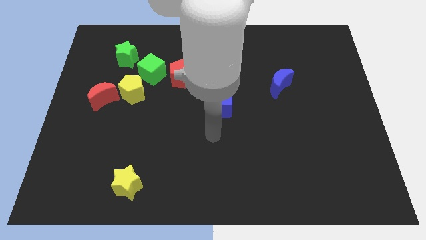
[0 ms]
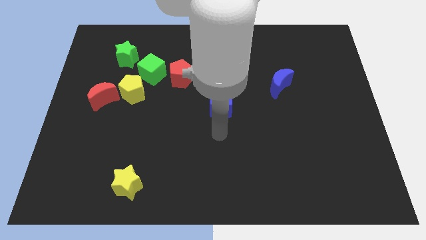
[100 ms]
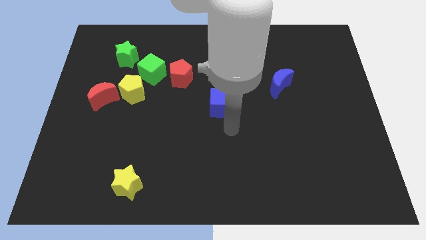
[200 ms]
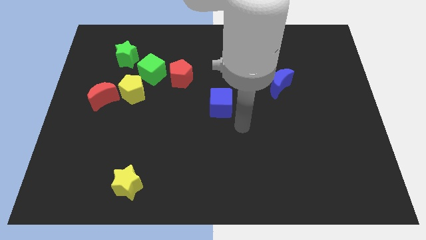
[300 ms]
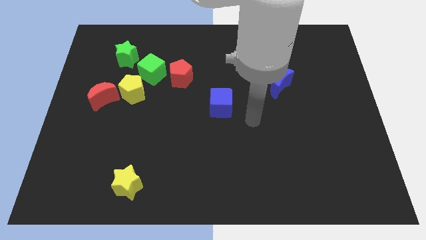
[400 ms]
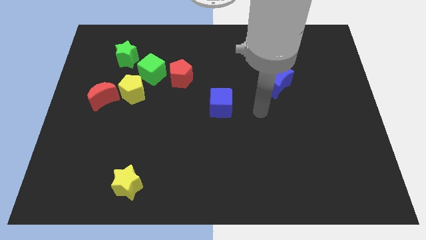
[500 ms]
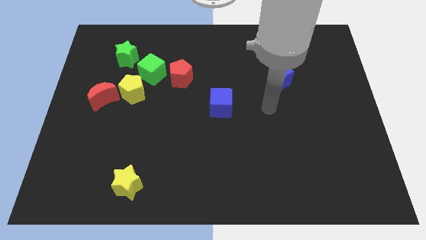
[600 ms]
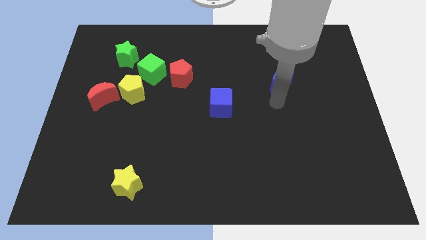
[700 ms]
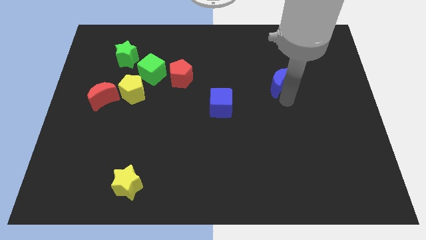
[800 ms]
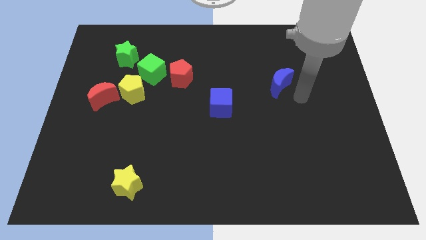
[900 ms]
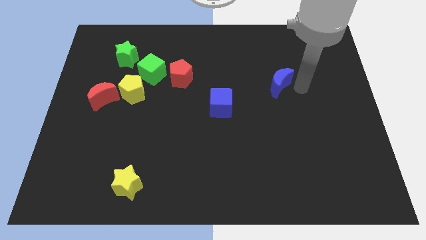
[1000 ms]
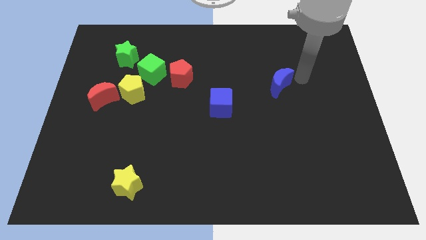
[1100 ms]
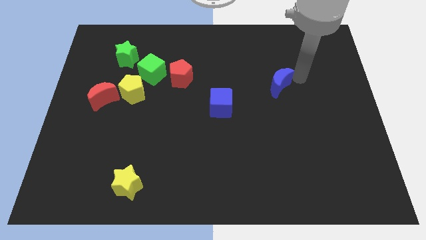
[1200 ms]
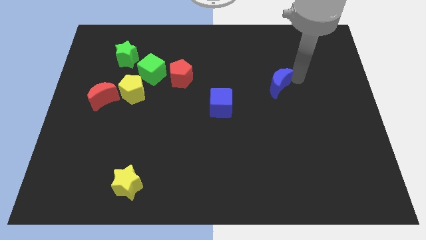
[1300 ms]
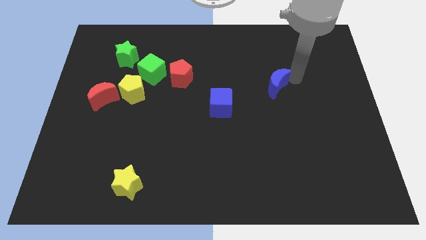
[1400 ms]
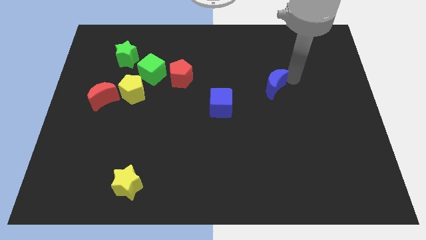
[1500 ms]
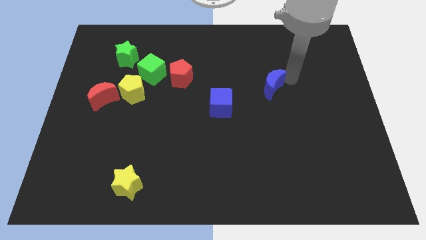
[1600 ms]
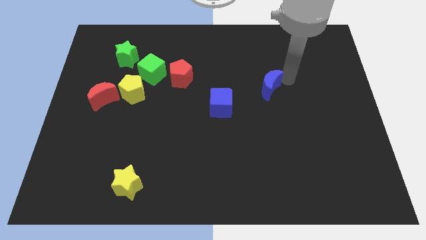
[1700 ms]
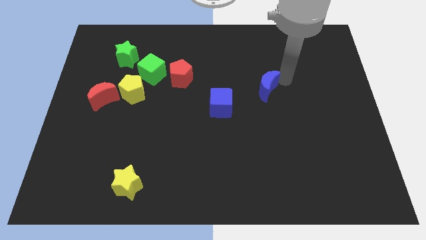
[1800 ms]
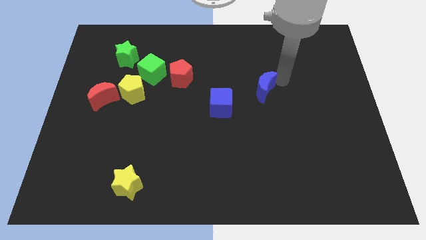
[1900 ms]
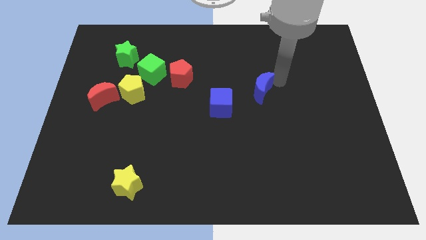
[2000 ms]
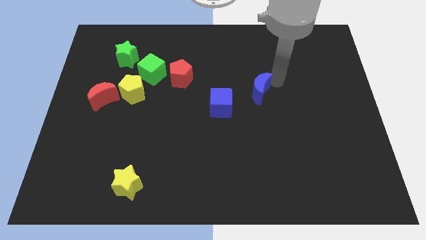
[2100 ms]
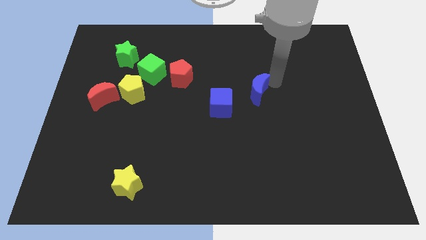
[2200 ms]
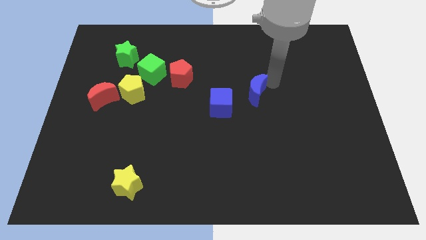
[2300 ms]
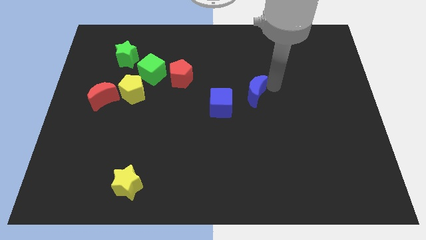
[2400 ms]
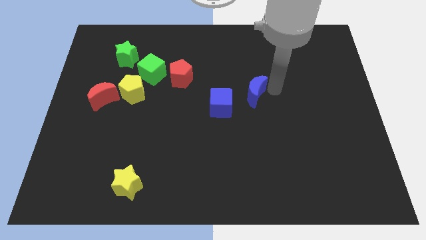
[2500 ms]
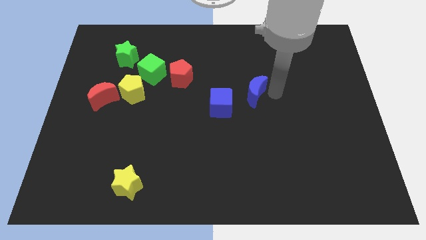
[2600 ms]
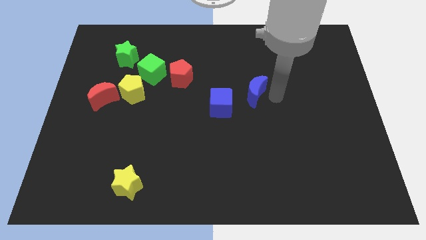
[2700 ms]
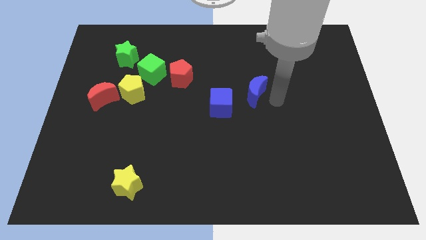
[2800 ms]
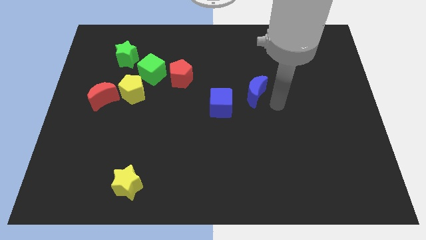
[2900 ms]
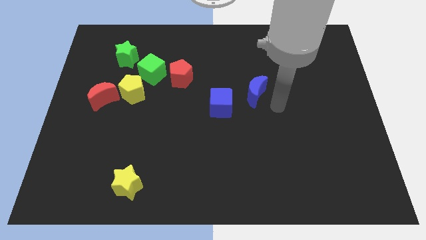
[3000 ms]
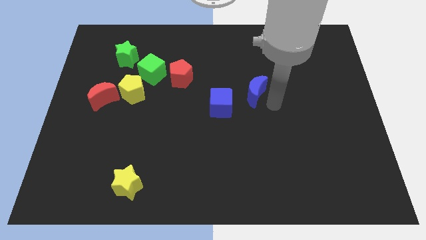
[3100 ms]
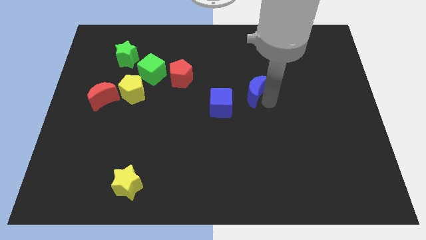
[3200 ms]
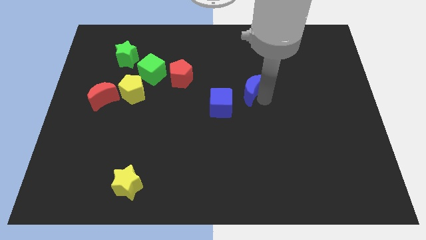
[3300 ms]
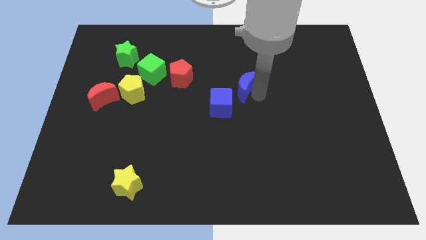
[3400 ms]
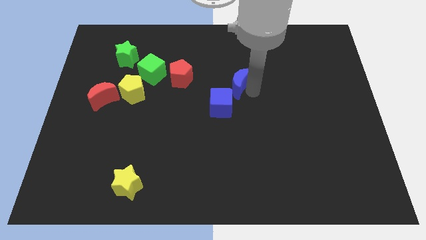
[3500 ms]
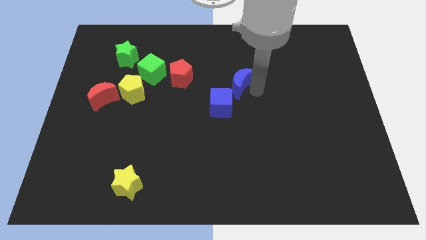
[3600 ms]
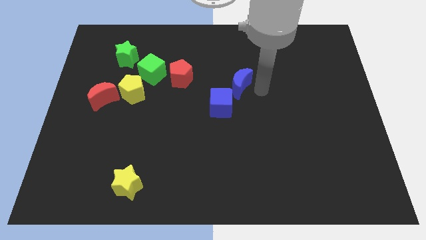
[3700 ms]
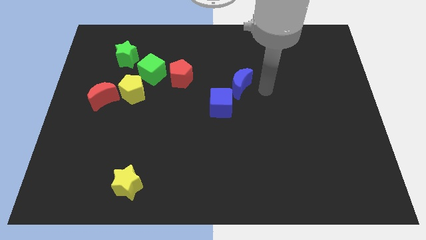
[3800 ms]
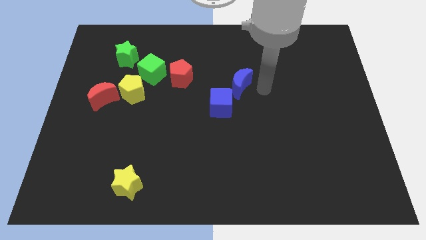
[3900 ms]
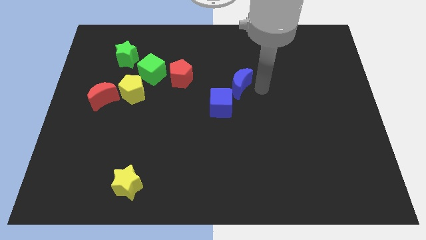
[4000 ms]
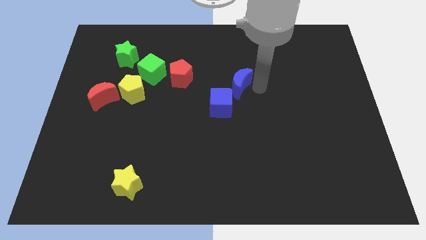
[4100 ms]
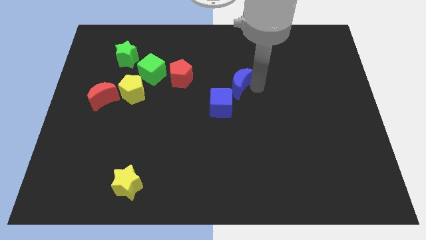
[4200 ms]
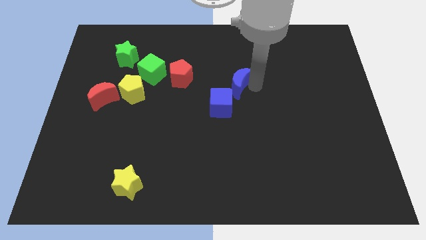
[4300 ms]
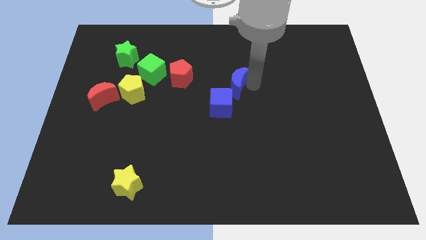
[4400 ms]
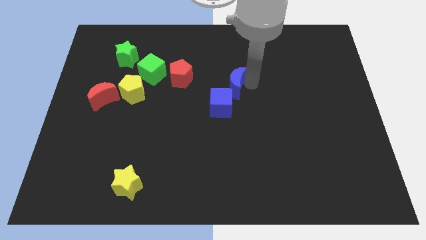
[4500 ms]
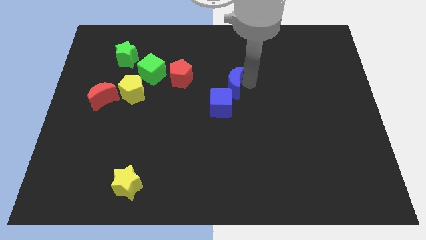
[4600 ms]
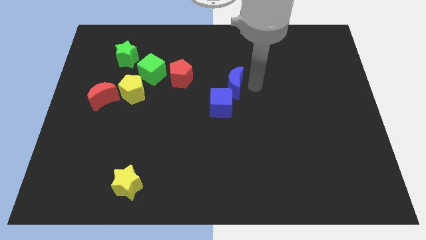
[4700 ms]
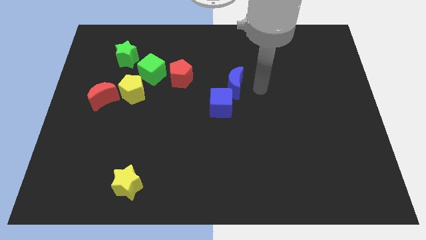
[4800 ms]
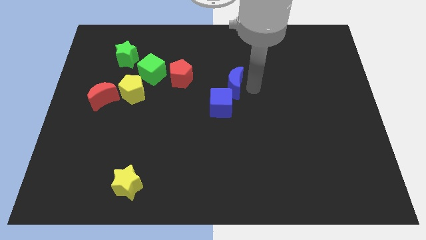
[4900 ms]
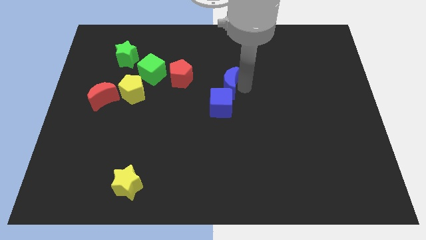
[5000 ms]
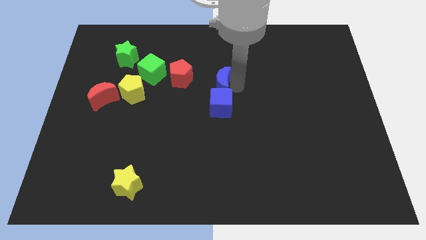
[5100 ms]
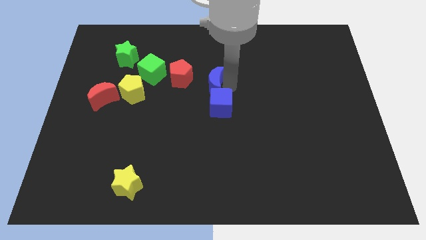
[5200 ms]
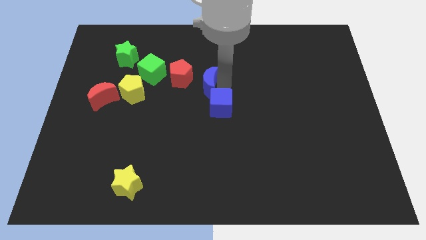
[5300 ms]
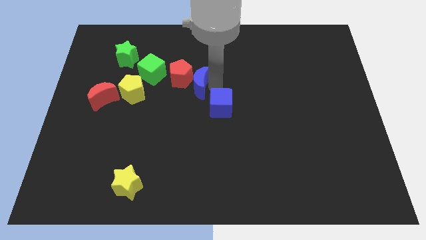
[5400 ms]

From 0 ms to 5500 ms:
slide the blue moon close to the red pentagon

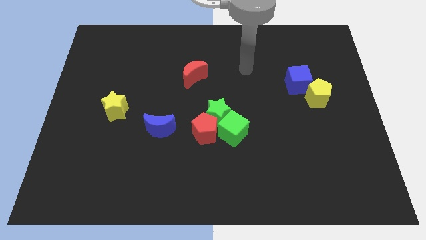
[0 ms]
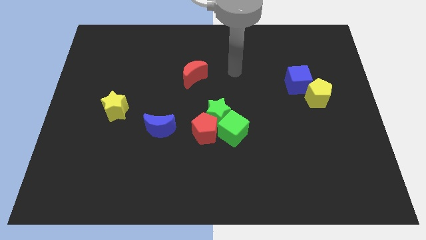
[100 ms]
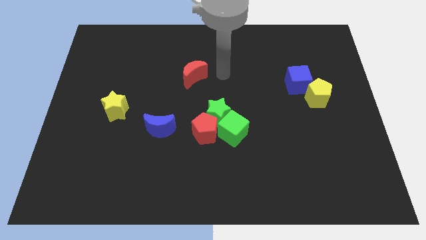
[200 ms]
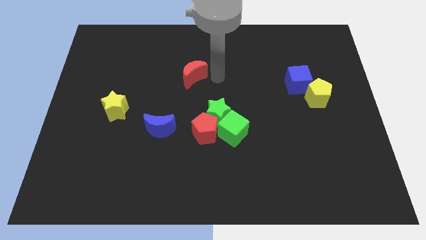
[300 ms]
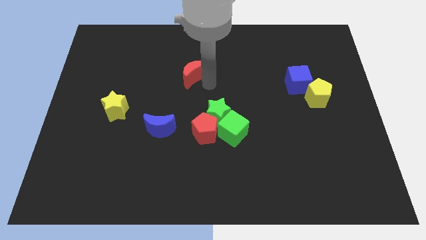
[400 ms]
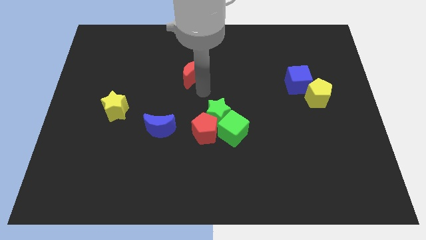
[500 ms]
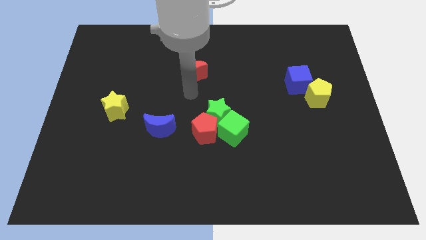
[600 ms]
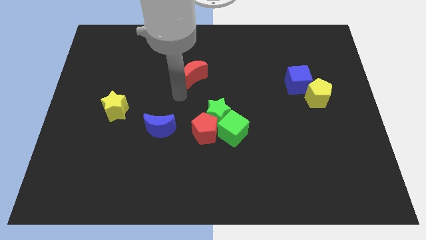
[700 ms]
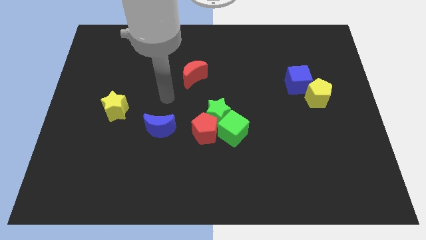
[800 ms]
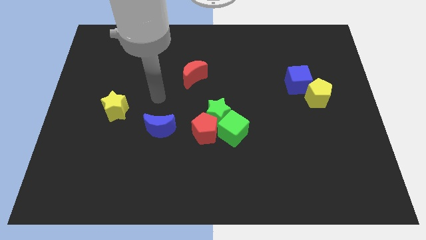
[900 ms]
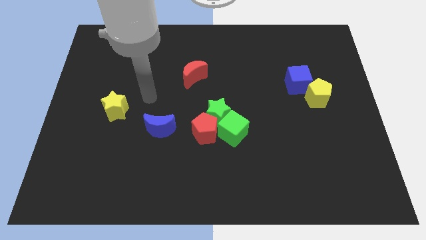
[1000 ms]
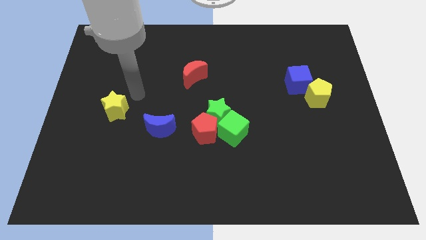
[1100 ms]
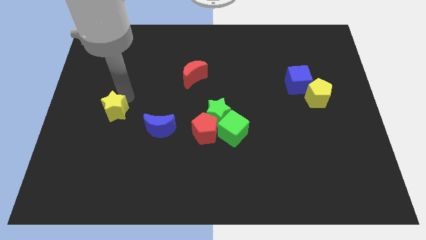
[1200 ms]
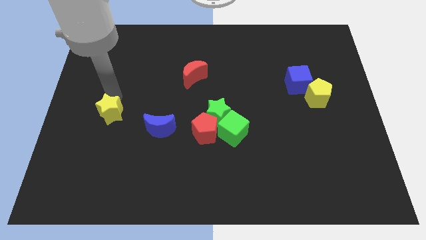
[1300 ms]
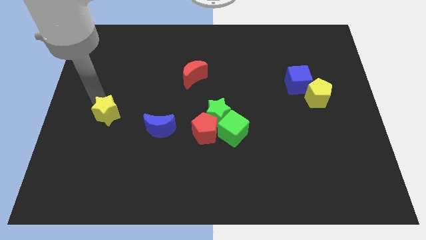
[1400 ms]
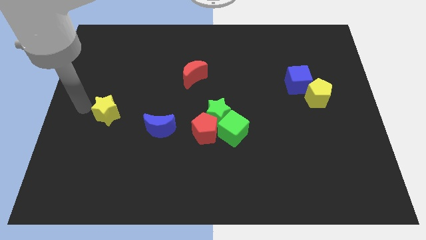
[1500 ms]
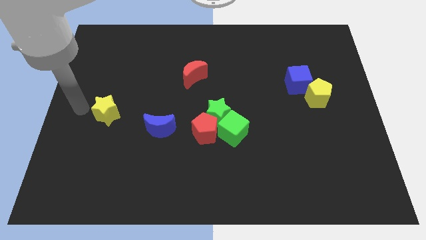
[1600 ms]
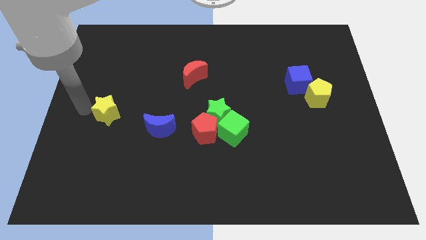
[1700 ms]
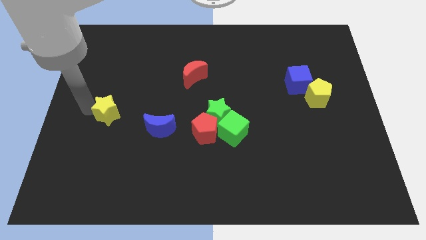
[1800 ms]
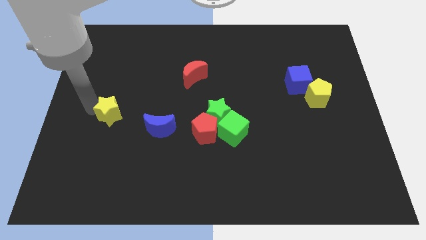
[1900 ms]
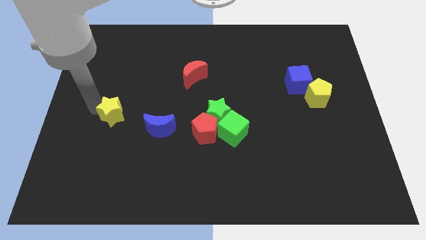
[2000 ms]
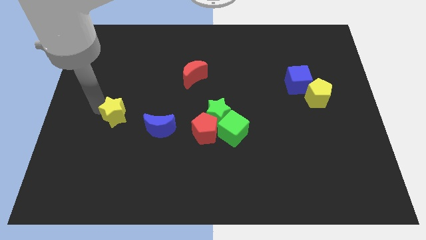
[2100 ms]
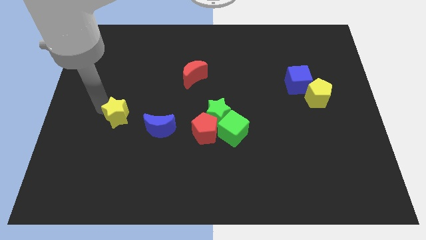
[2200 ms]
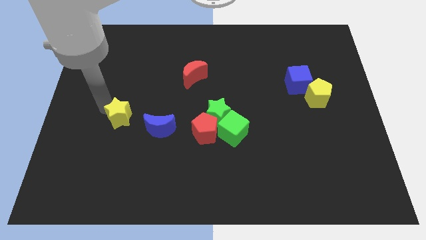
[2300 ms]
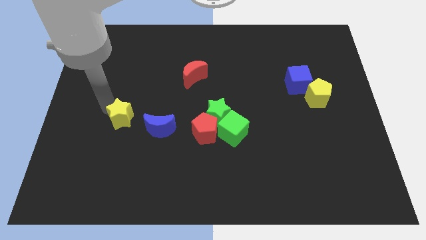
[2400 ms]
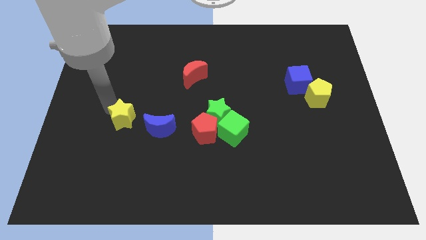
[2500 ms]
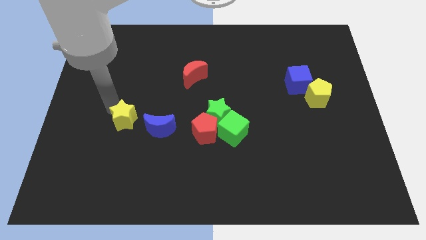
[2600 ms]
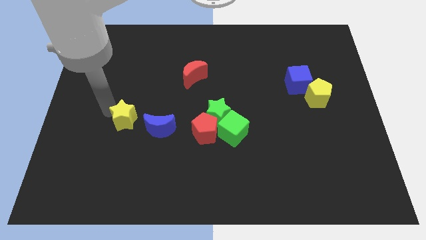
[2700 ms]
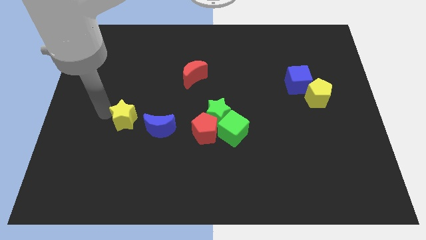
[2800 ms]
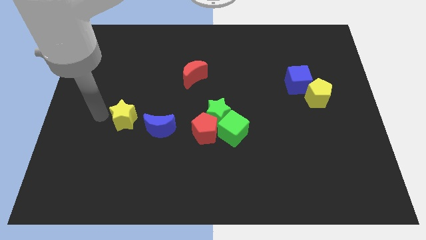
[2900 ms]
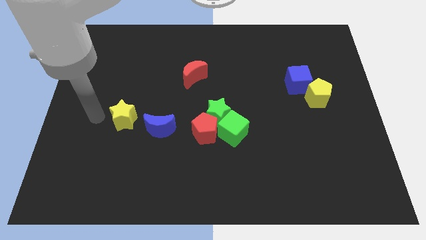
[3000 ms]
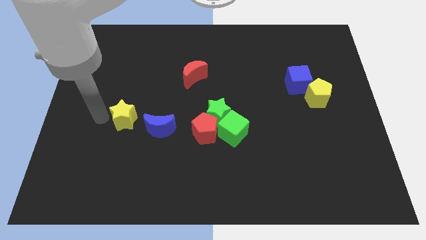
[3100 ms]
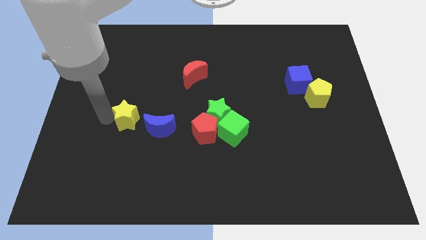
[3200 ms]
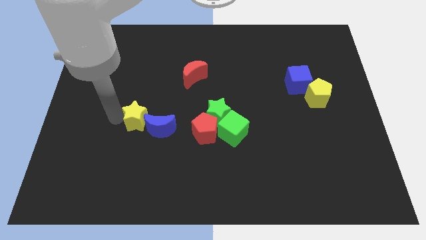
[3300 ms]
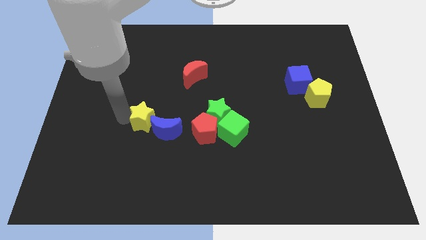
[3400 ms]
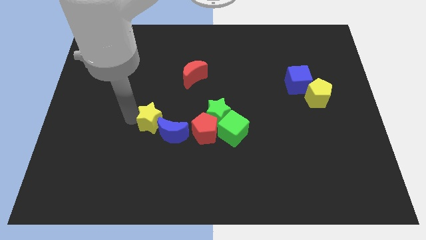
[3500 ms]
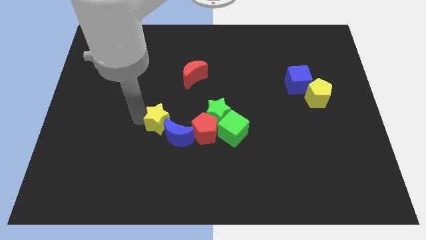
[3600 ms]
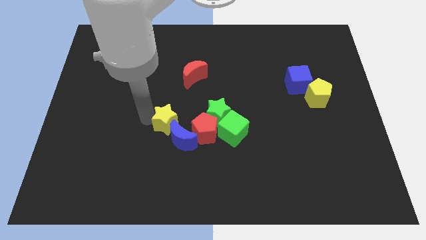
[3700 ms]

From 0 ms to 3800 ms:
put the yellow star next to the blue moon
